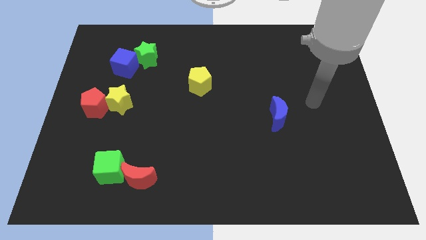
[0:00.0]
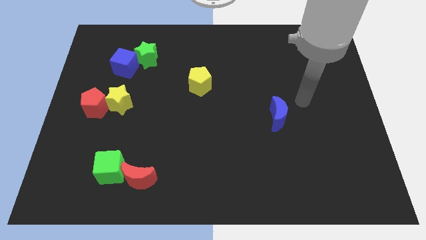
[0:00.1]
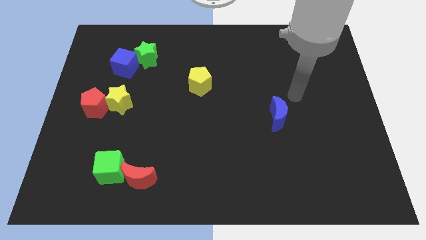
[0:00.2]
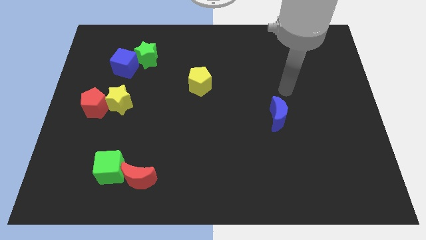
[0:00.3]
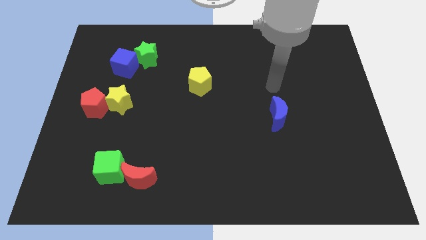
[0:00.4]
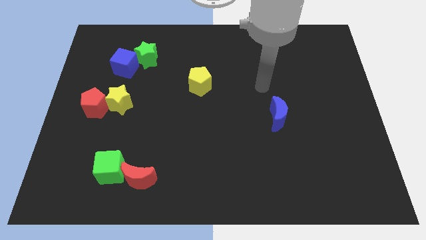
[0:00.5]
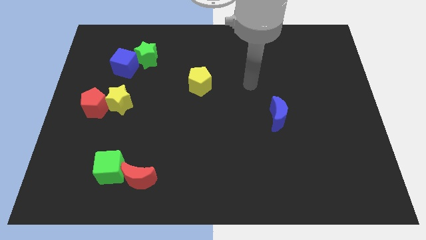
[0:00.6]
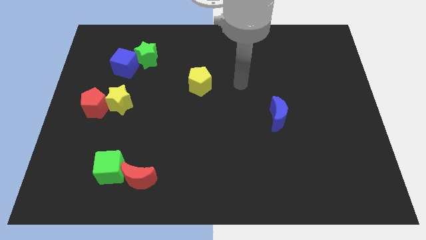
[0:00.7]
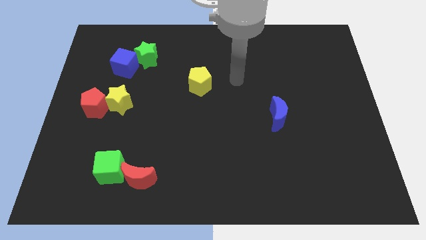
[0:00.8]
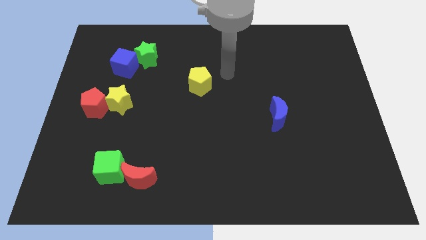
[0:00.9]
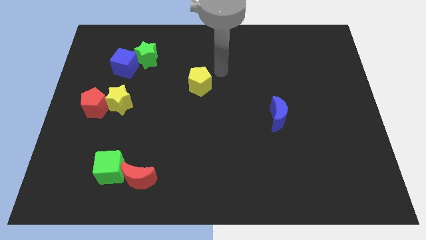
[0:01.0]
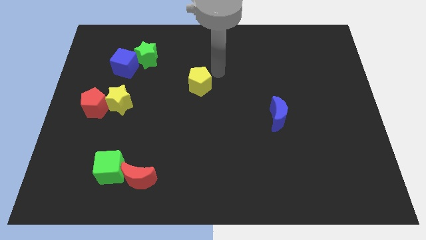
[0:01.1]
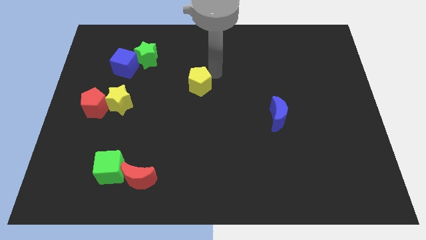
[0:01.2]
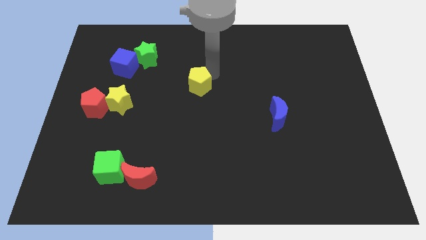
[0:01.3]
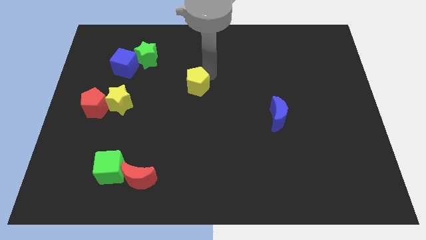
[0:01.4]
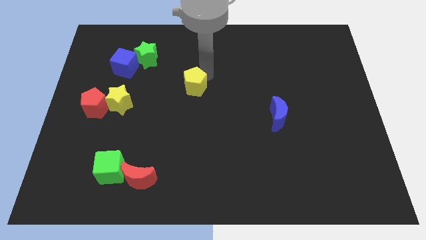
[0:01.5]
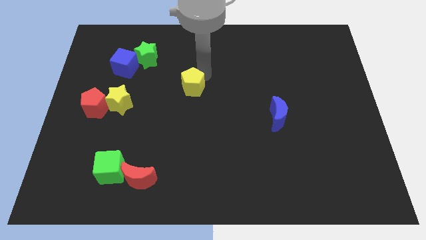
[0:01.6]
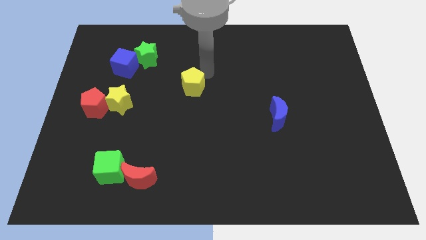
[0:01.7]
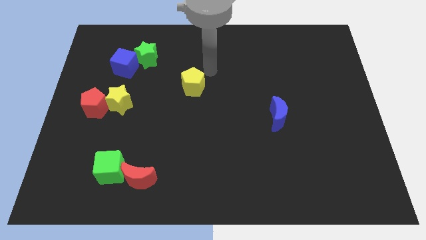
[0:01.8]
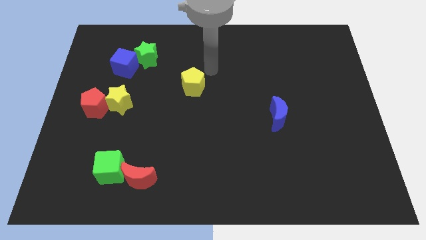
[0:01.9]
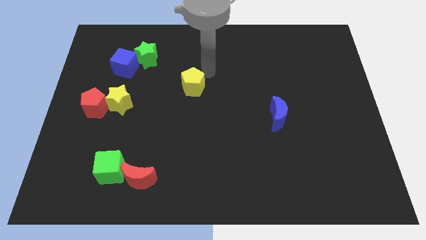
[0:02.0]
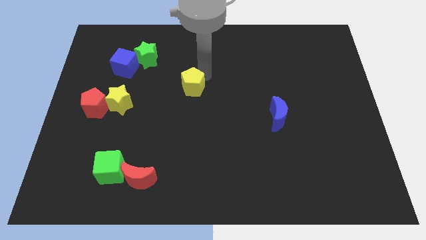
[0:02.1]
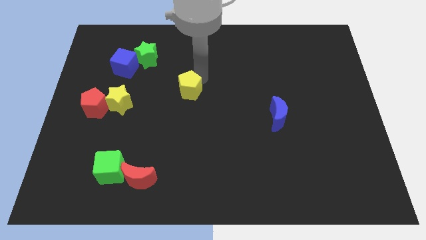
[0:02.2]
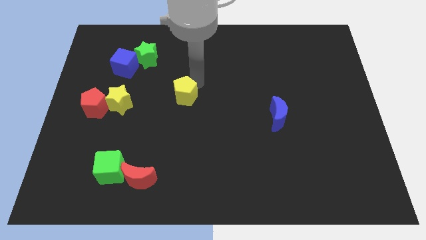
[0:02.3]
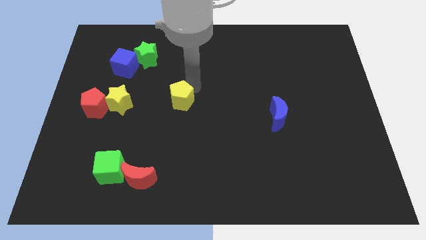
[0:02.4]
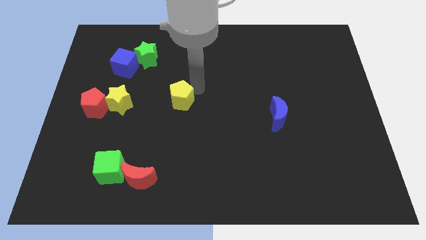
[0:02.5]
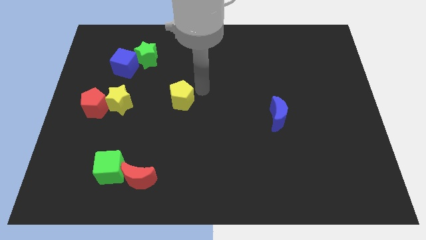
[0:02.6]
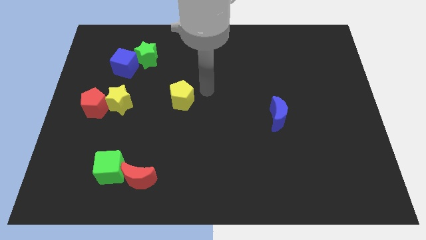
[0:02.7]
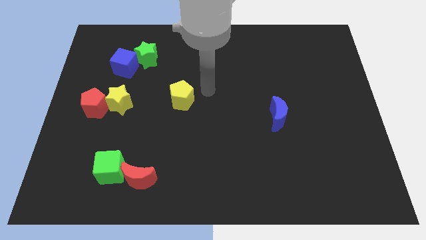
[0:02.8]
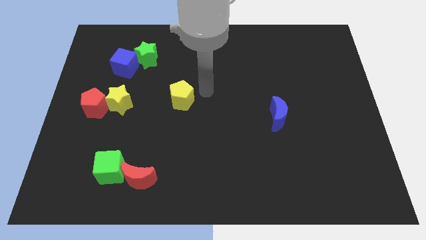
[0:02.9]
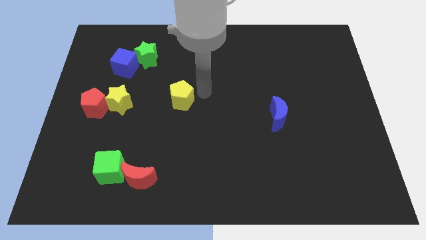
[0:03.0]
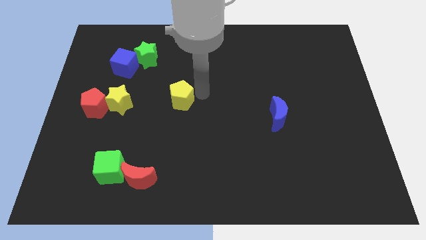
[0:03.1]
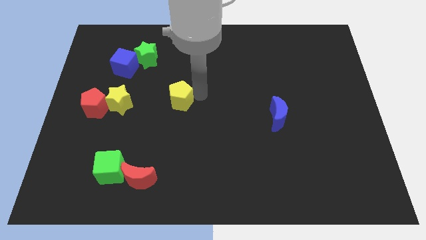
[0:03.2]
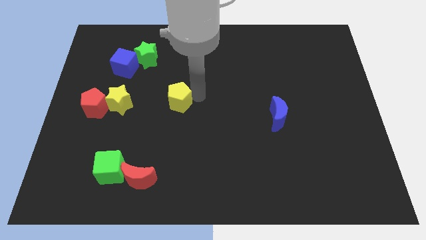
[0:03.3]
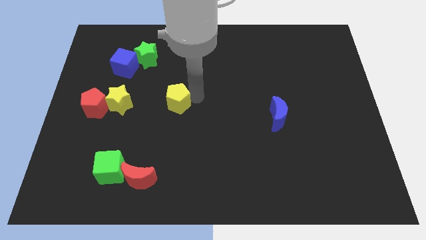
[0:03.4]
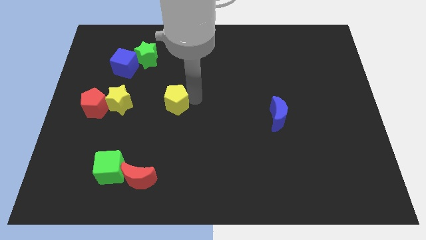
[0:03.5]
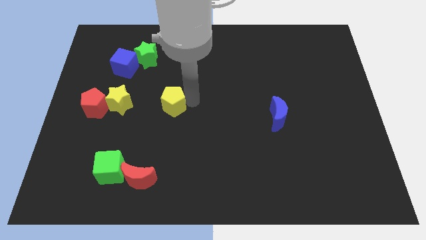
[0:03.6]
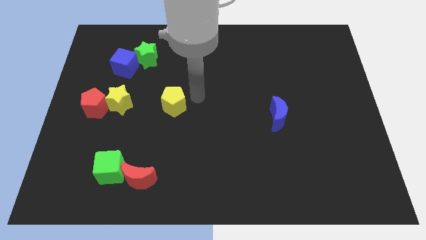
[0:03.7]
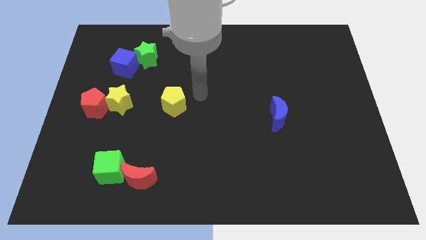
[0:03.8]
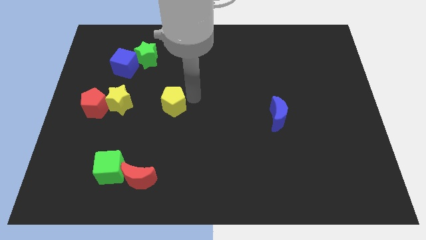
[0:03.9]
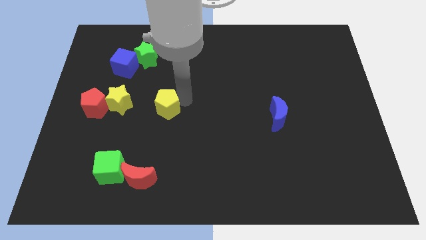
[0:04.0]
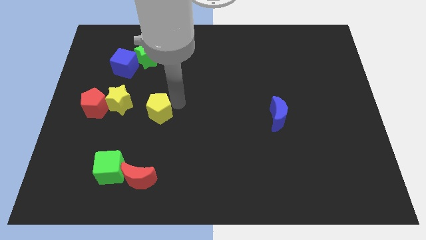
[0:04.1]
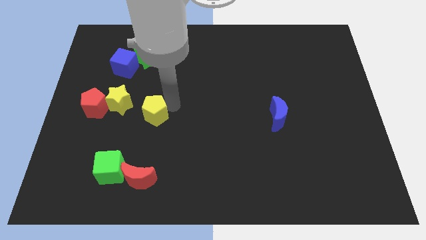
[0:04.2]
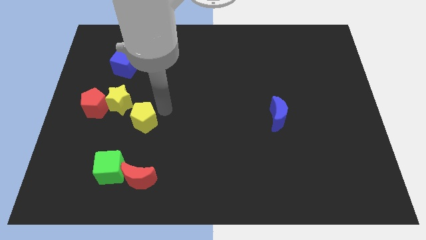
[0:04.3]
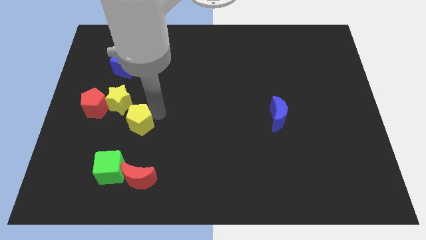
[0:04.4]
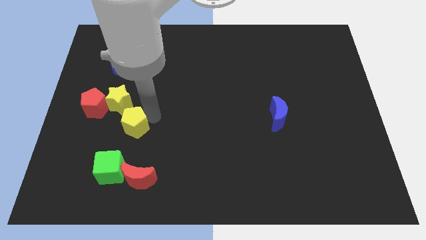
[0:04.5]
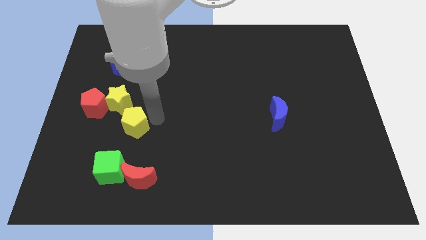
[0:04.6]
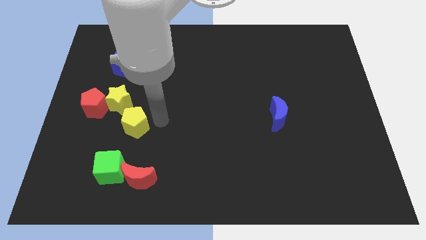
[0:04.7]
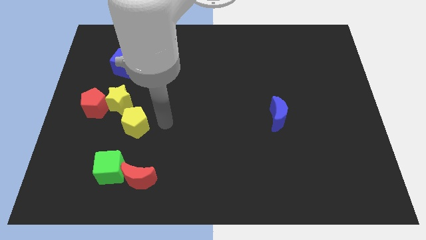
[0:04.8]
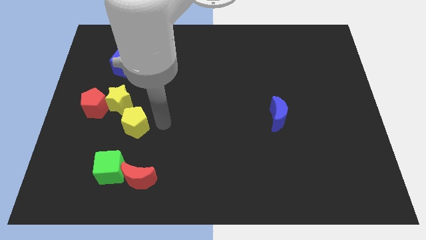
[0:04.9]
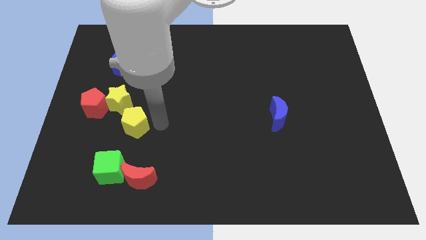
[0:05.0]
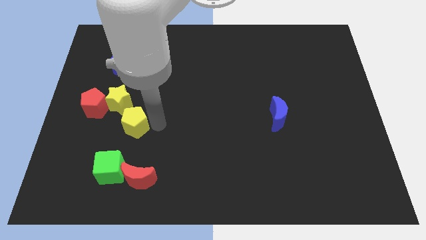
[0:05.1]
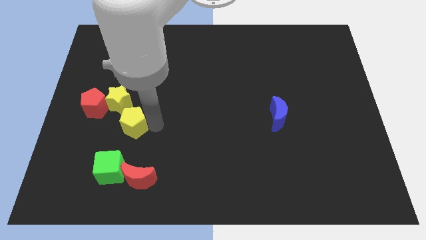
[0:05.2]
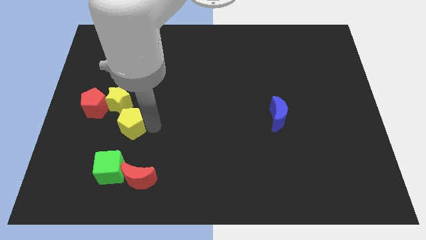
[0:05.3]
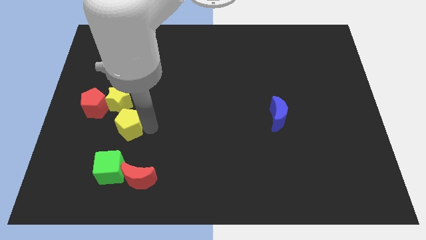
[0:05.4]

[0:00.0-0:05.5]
push the yellow pentagon down and left diagonally

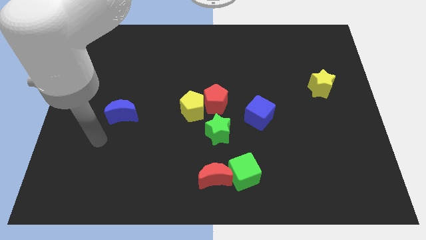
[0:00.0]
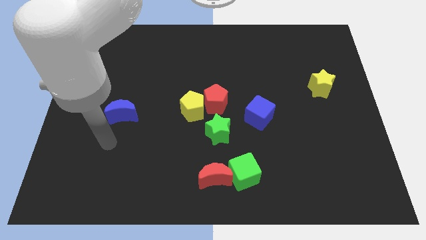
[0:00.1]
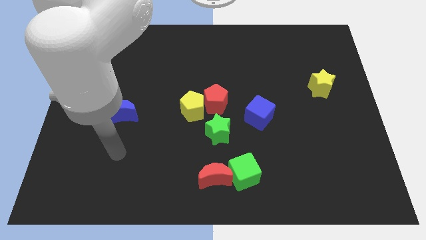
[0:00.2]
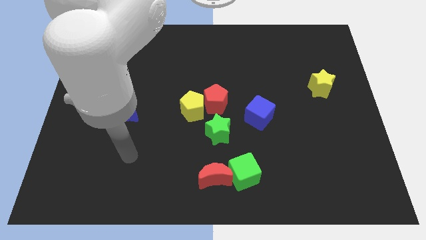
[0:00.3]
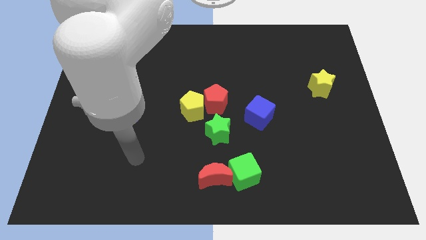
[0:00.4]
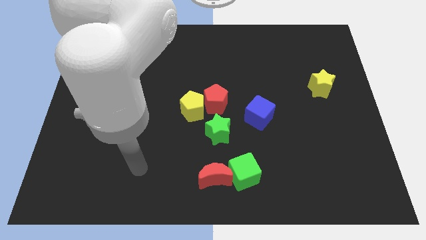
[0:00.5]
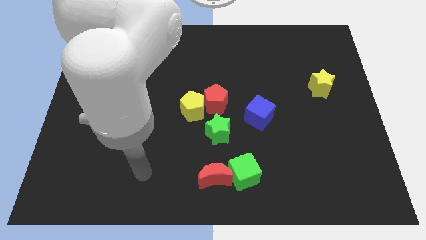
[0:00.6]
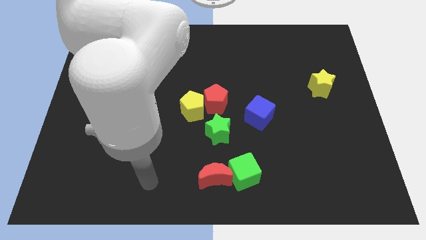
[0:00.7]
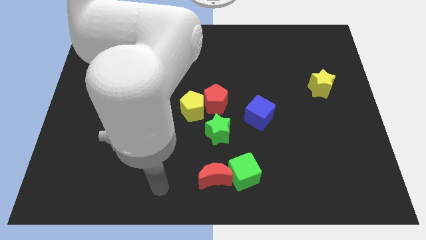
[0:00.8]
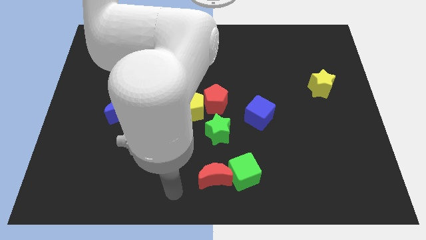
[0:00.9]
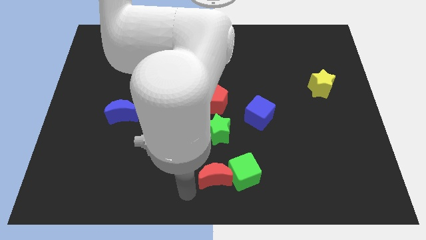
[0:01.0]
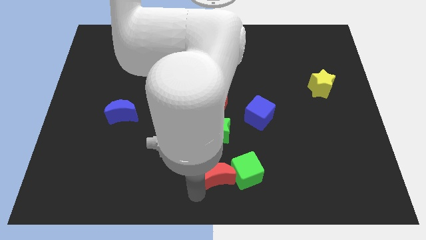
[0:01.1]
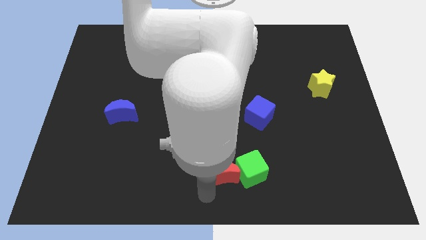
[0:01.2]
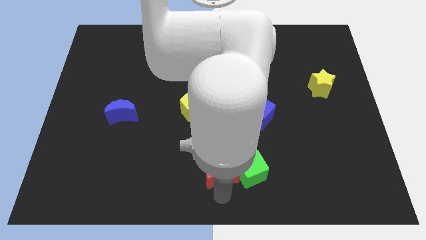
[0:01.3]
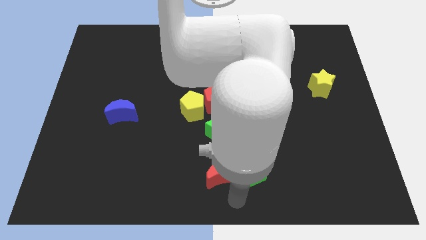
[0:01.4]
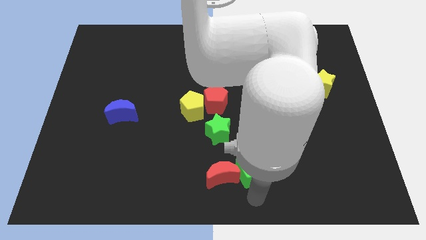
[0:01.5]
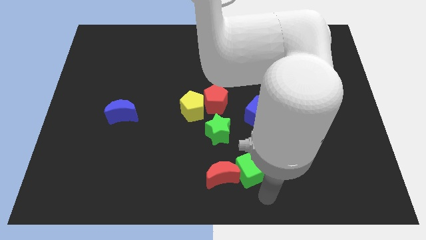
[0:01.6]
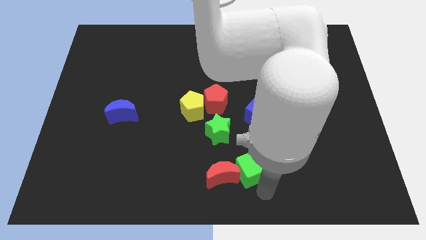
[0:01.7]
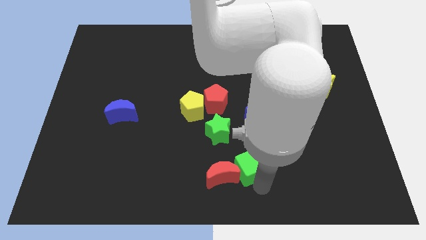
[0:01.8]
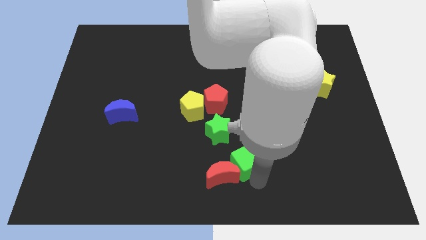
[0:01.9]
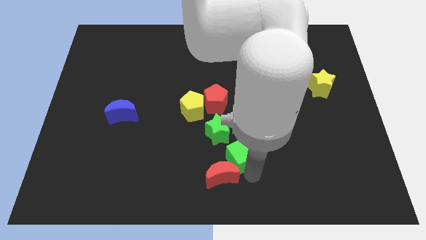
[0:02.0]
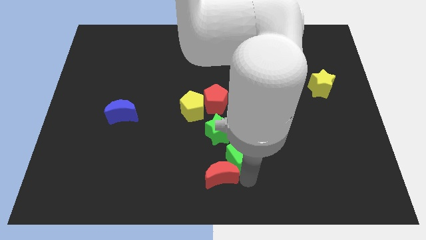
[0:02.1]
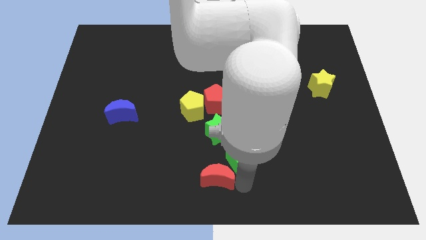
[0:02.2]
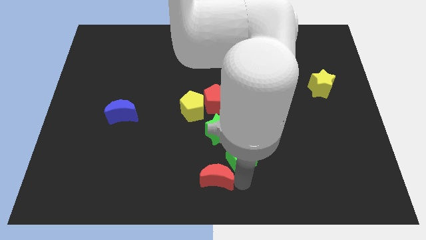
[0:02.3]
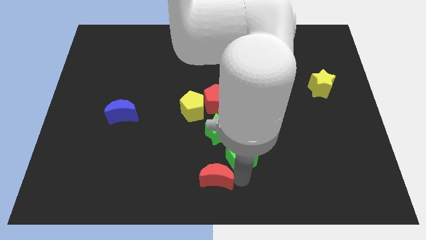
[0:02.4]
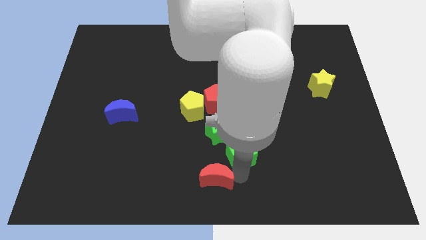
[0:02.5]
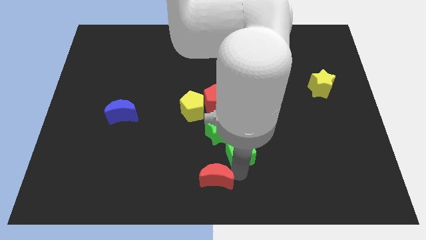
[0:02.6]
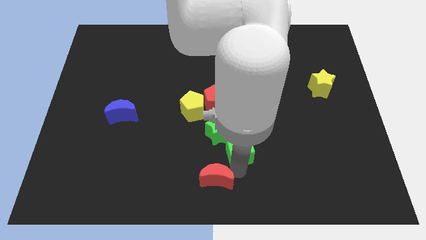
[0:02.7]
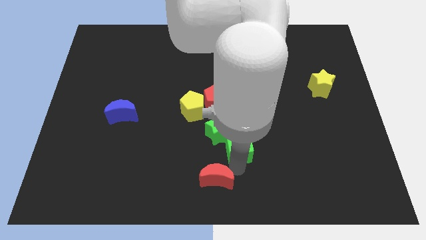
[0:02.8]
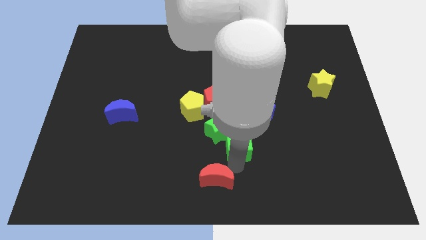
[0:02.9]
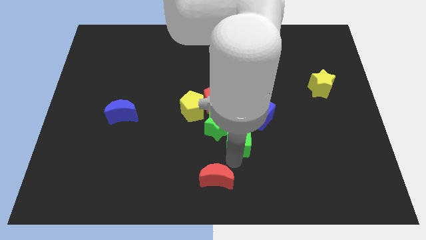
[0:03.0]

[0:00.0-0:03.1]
slightly move the green cube upwards
